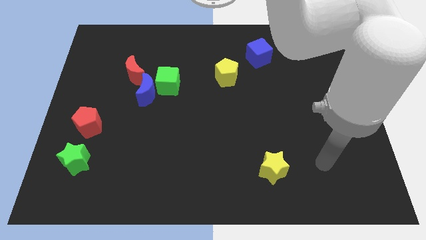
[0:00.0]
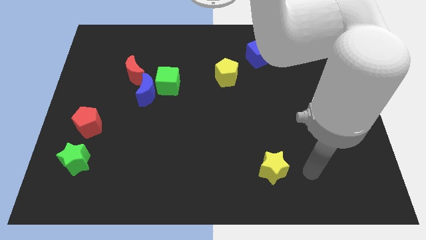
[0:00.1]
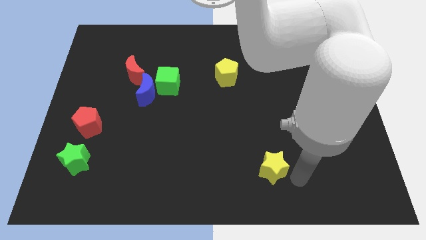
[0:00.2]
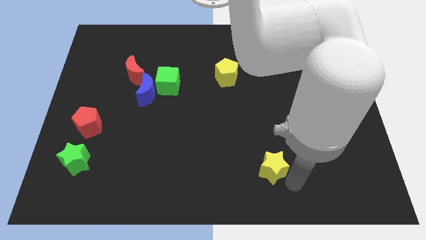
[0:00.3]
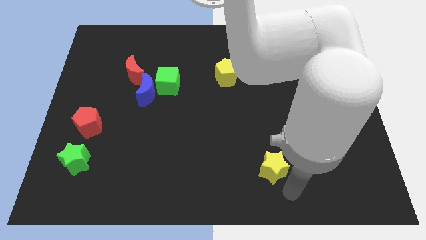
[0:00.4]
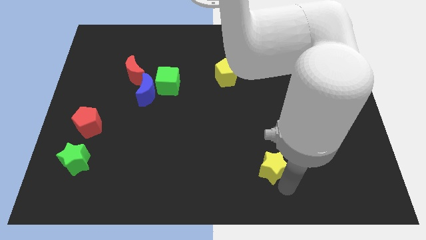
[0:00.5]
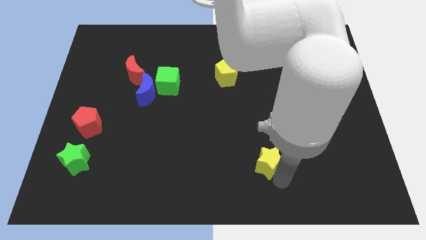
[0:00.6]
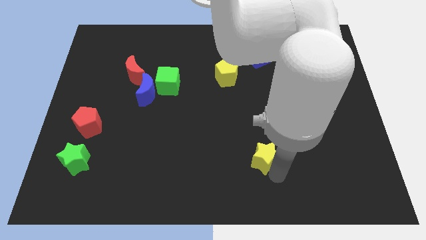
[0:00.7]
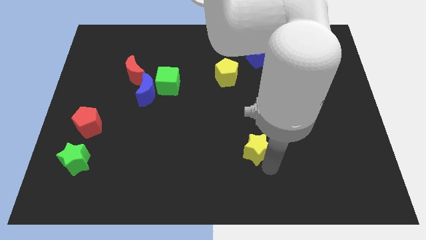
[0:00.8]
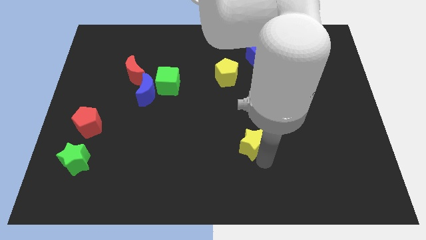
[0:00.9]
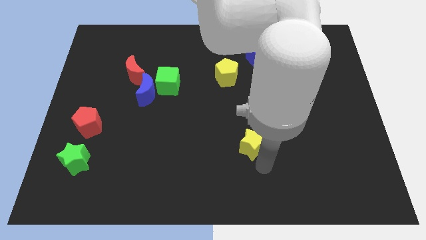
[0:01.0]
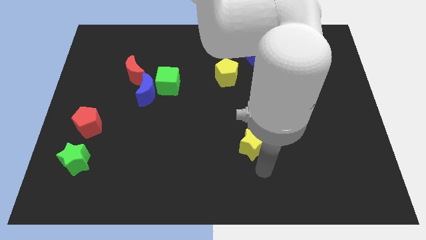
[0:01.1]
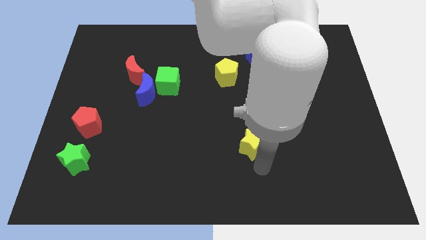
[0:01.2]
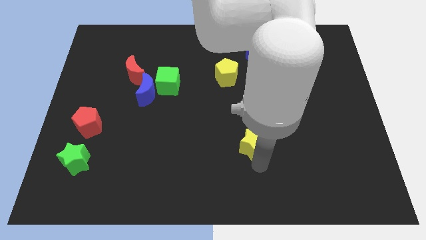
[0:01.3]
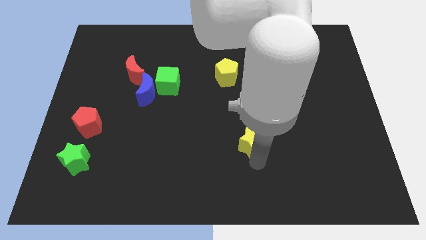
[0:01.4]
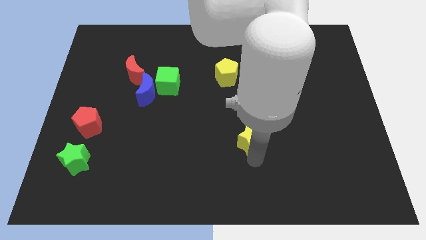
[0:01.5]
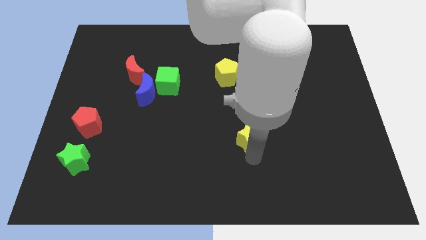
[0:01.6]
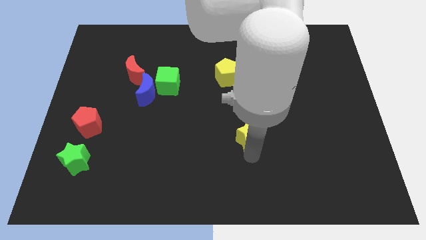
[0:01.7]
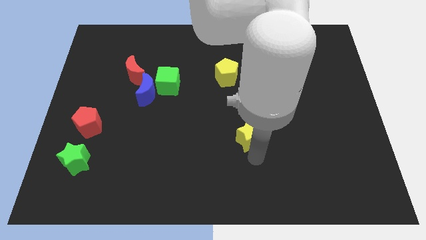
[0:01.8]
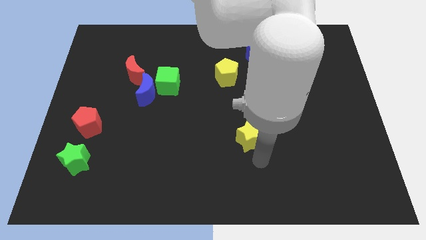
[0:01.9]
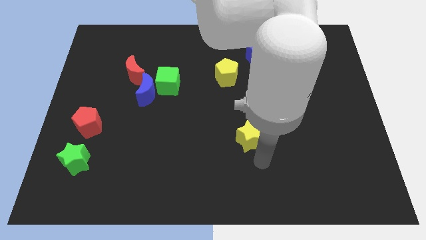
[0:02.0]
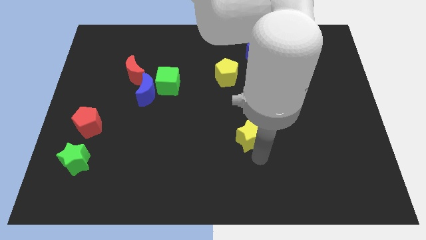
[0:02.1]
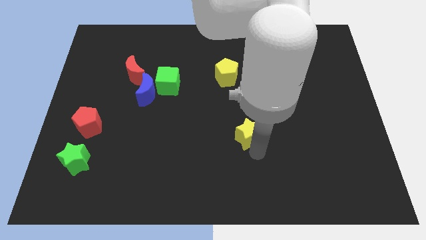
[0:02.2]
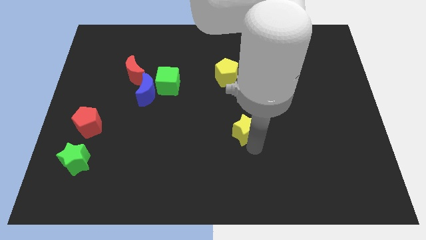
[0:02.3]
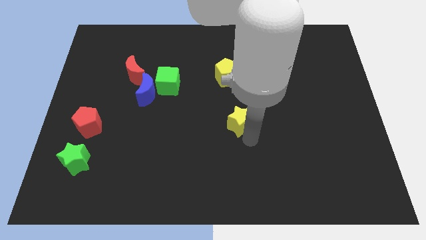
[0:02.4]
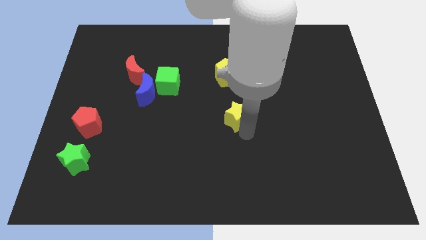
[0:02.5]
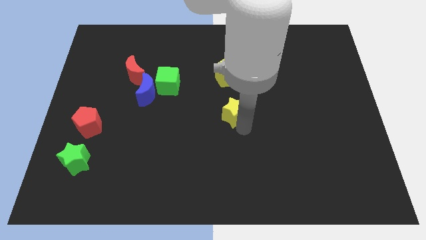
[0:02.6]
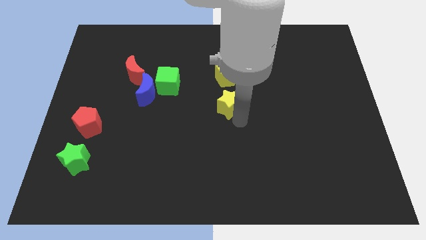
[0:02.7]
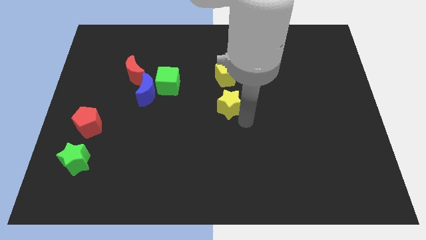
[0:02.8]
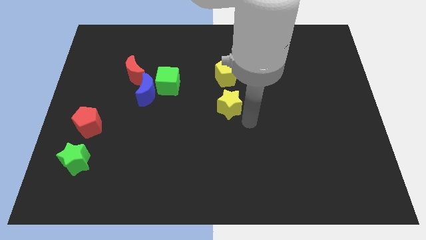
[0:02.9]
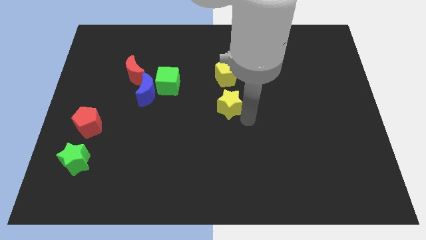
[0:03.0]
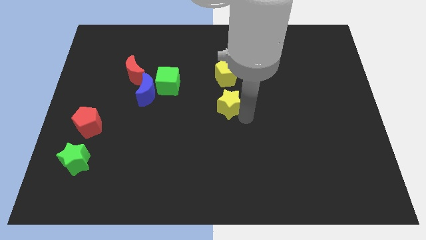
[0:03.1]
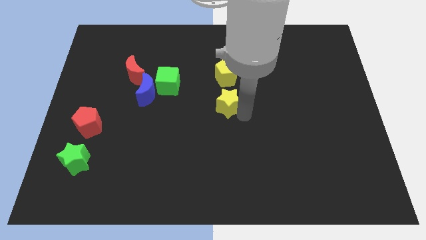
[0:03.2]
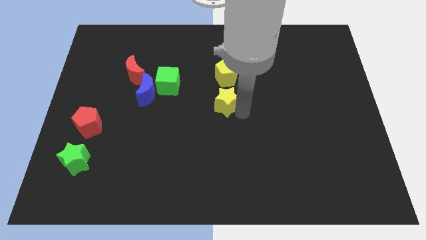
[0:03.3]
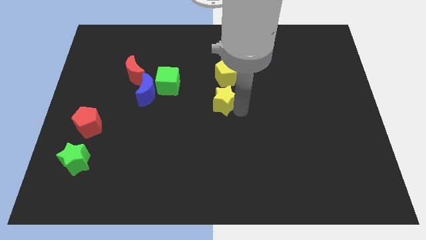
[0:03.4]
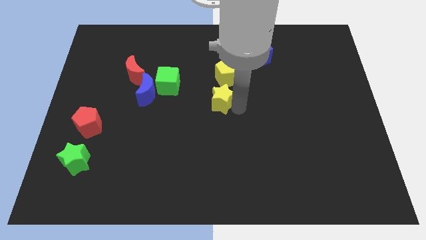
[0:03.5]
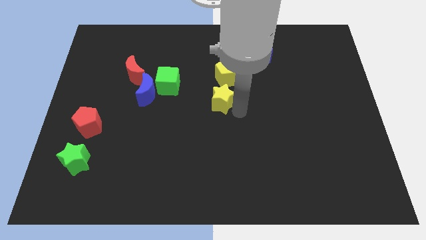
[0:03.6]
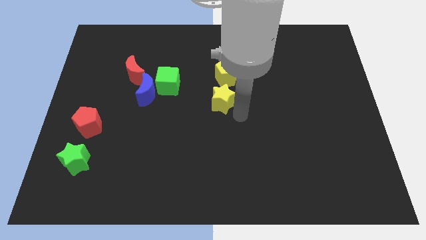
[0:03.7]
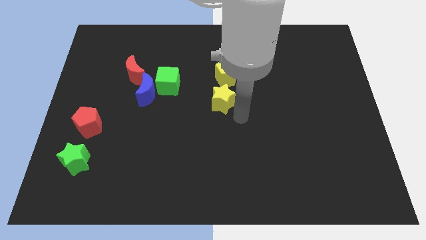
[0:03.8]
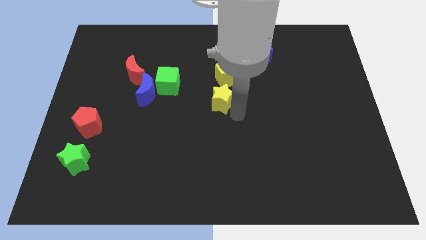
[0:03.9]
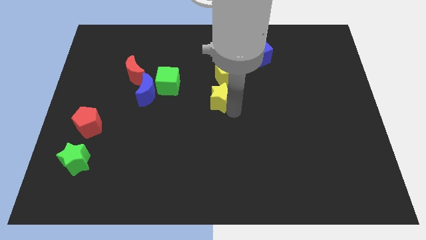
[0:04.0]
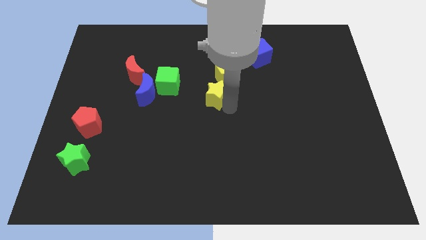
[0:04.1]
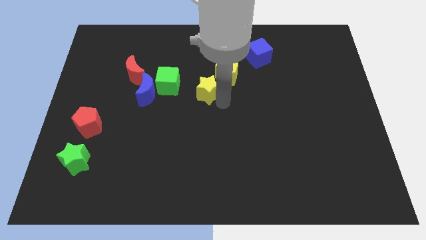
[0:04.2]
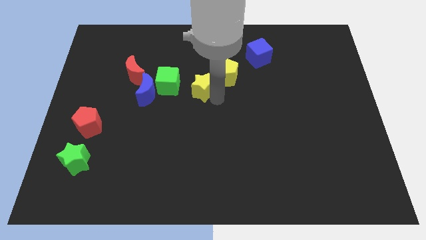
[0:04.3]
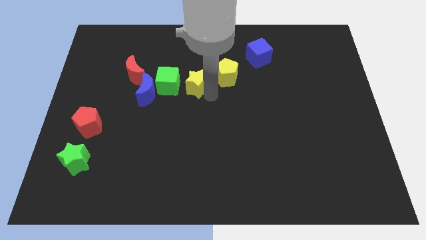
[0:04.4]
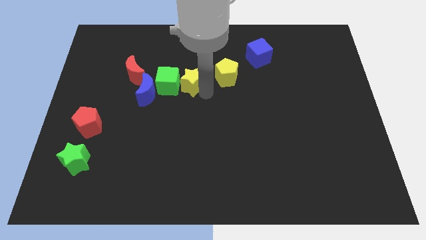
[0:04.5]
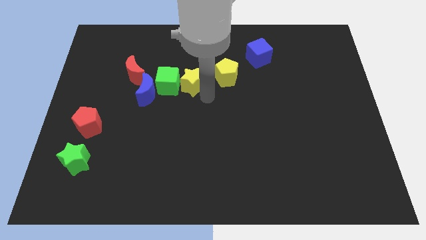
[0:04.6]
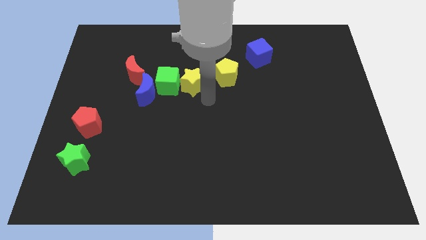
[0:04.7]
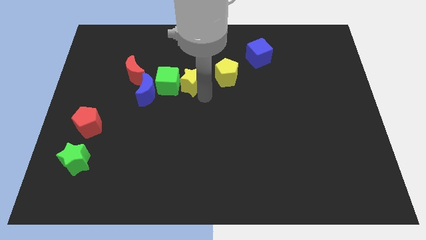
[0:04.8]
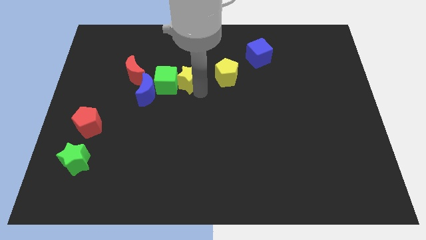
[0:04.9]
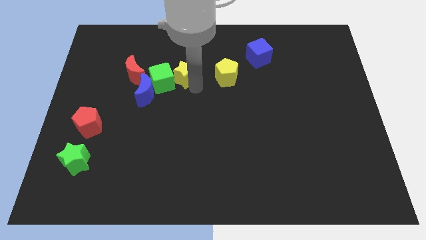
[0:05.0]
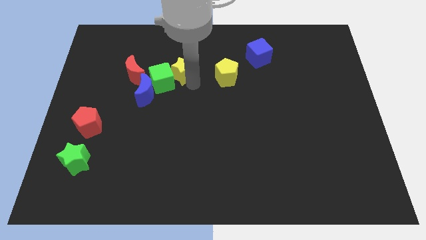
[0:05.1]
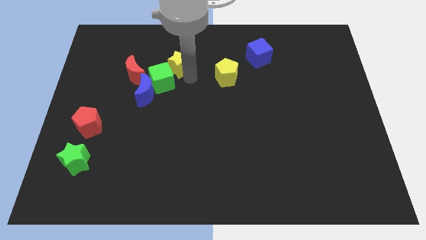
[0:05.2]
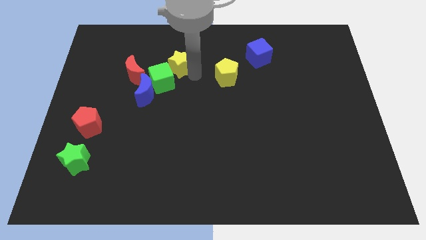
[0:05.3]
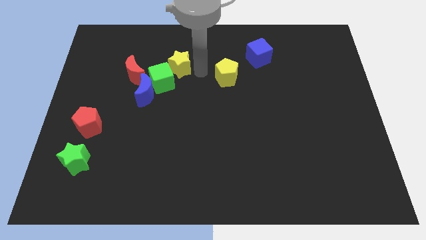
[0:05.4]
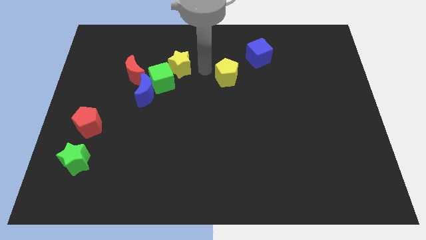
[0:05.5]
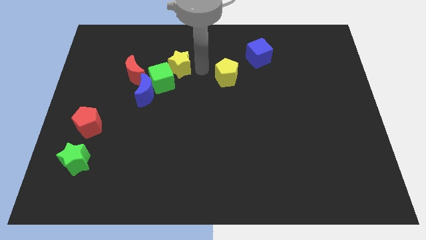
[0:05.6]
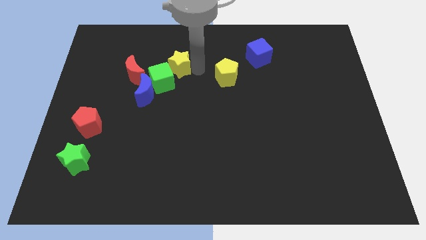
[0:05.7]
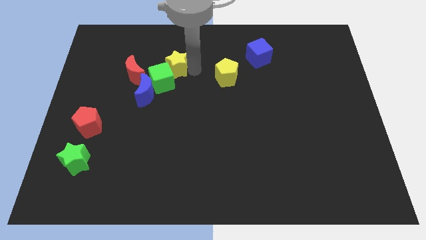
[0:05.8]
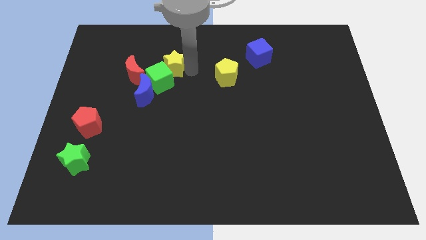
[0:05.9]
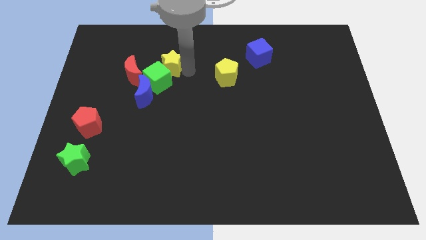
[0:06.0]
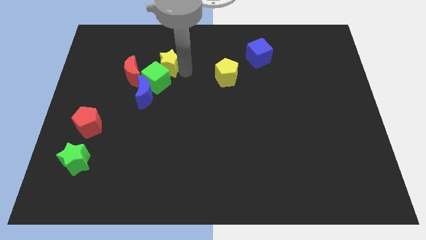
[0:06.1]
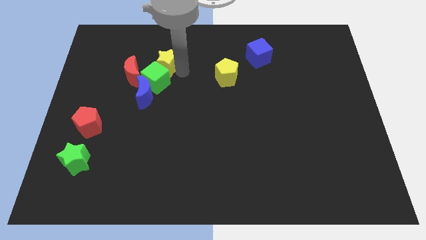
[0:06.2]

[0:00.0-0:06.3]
move the yellow star to the top of the blue moon
